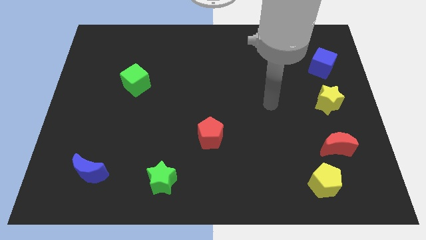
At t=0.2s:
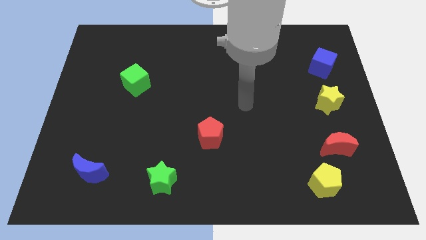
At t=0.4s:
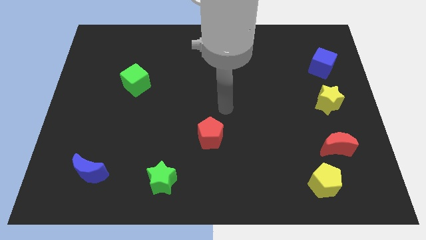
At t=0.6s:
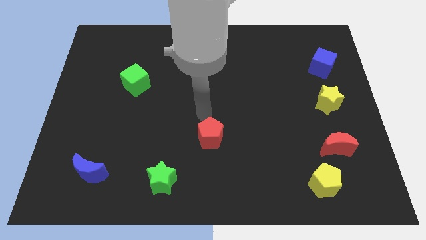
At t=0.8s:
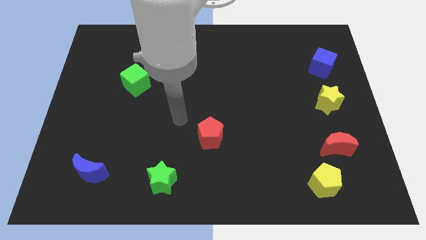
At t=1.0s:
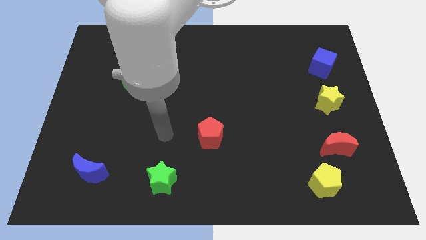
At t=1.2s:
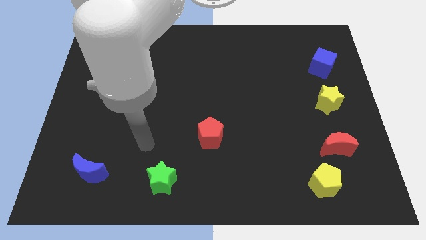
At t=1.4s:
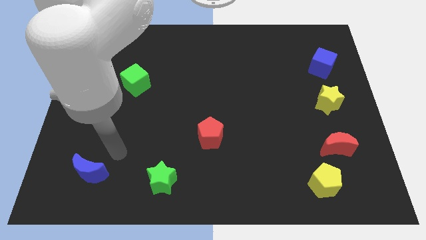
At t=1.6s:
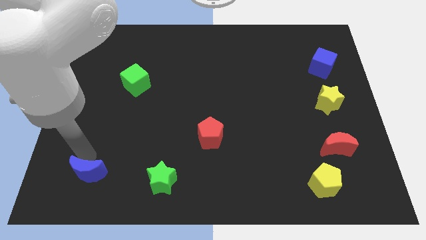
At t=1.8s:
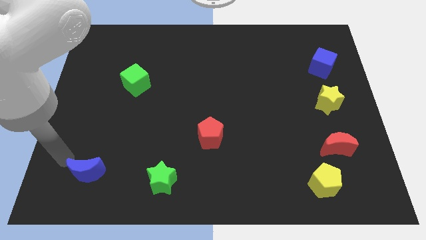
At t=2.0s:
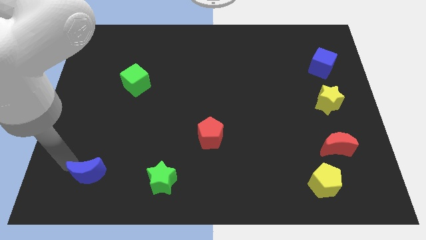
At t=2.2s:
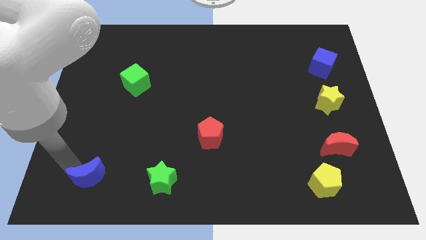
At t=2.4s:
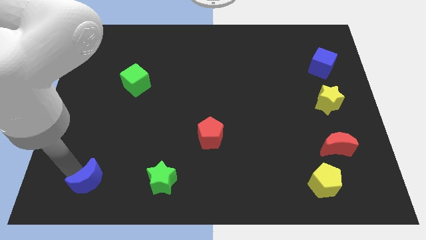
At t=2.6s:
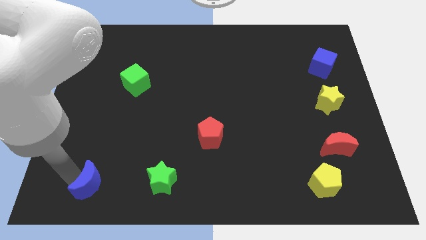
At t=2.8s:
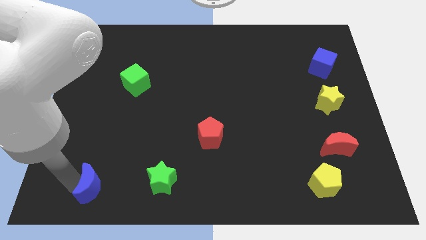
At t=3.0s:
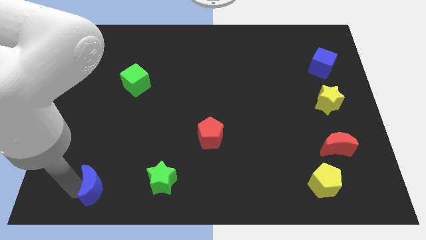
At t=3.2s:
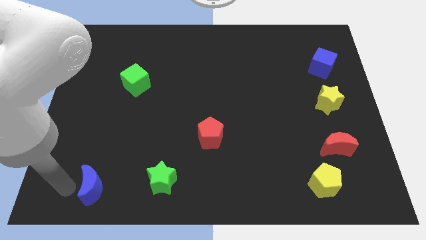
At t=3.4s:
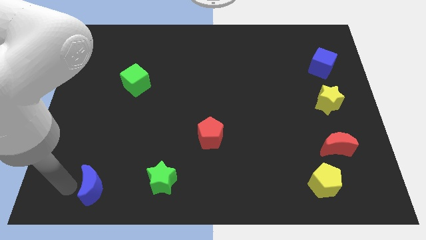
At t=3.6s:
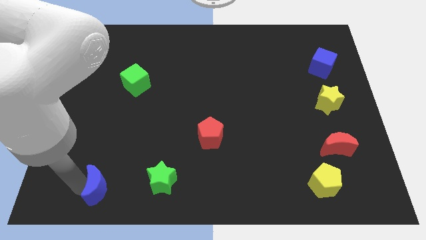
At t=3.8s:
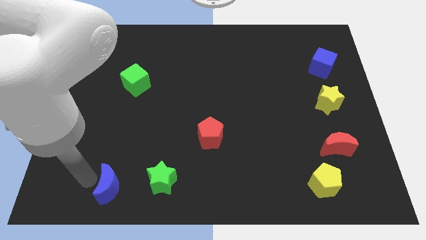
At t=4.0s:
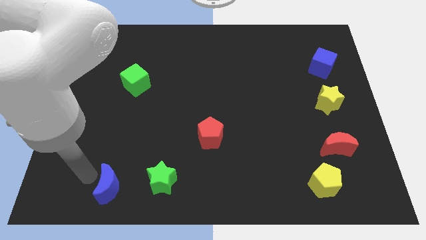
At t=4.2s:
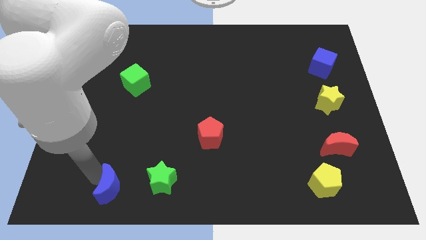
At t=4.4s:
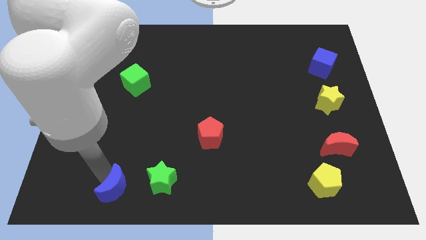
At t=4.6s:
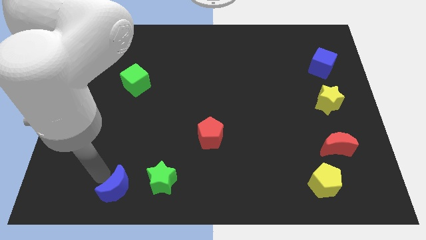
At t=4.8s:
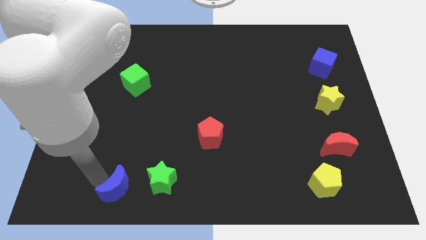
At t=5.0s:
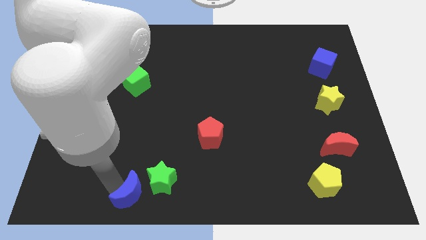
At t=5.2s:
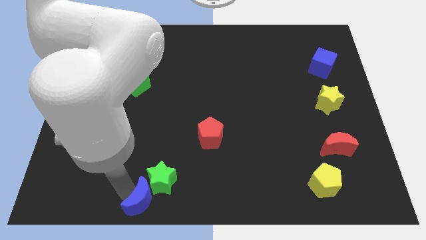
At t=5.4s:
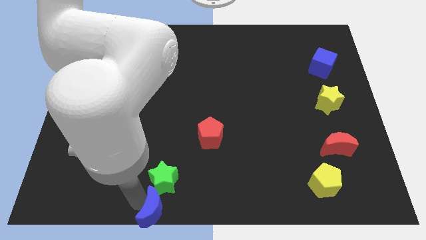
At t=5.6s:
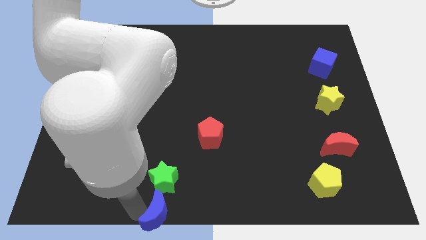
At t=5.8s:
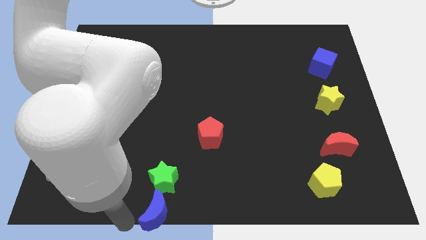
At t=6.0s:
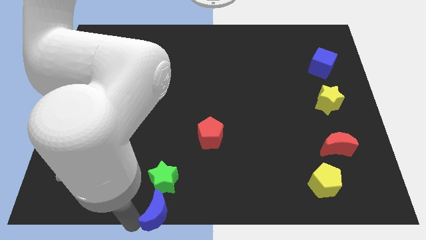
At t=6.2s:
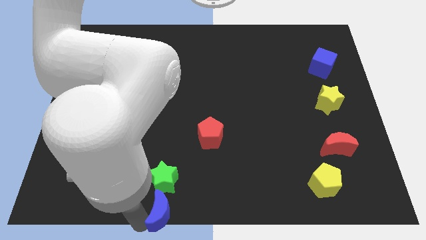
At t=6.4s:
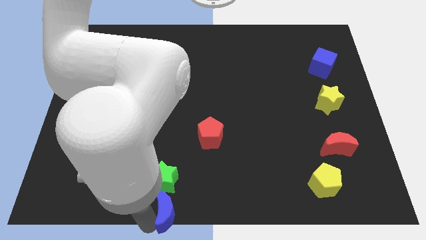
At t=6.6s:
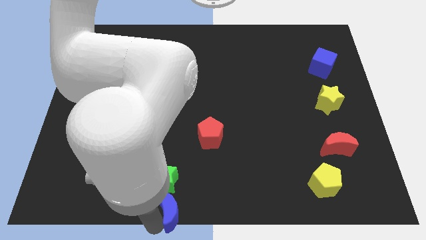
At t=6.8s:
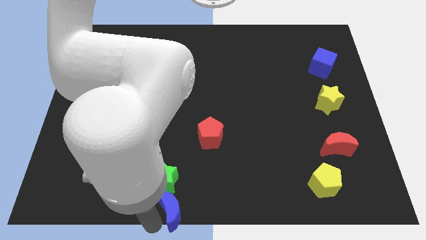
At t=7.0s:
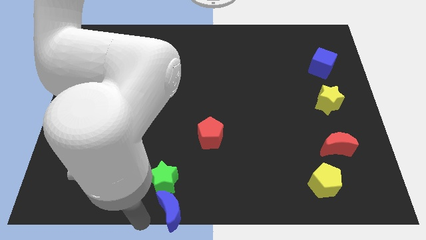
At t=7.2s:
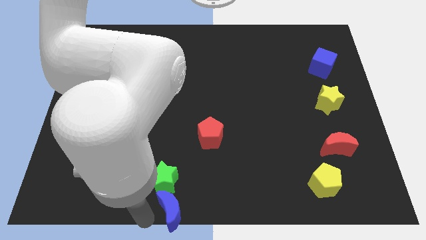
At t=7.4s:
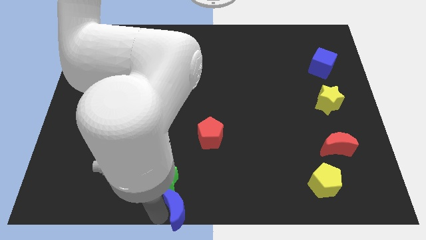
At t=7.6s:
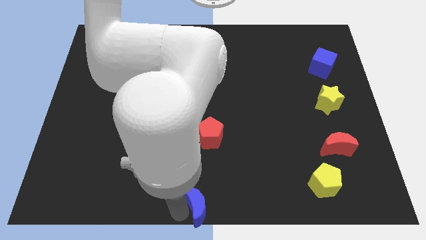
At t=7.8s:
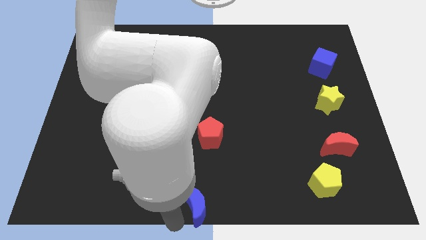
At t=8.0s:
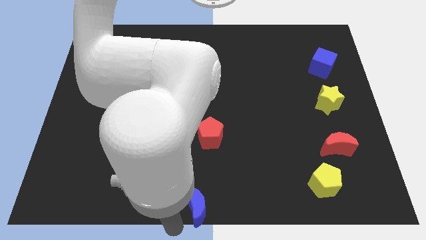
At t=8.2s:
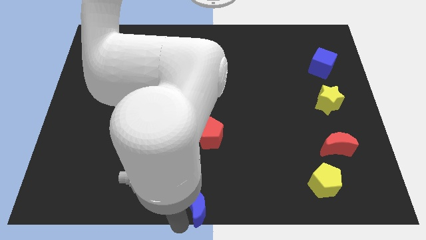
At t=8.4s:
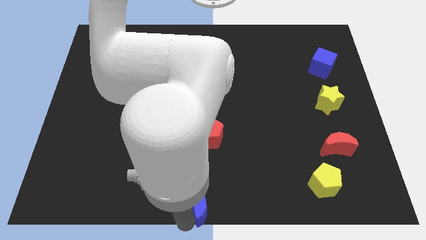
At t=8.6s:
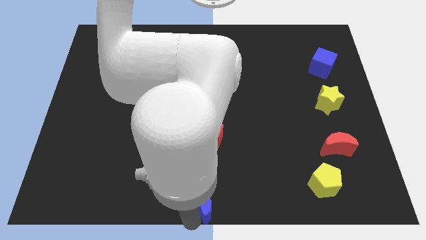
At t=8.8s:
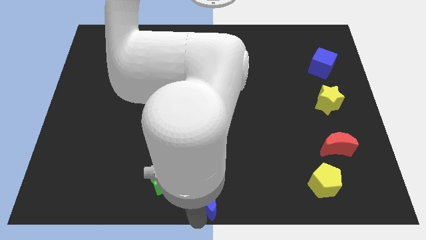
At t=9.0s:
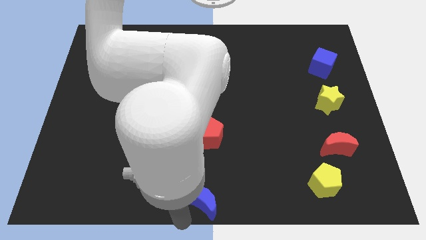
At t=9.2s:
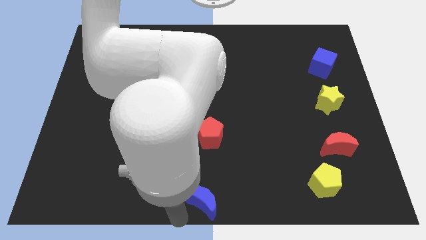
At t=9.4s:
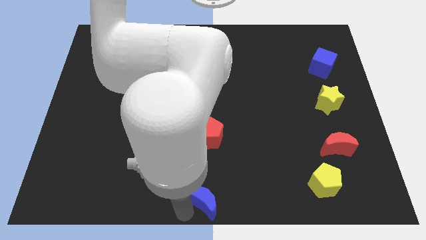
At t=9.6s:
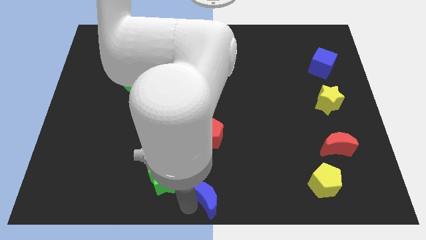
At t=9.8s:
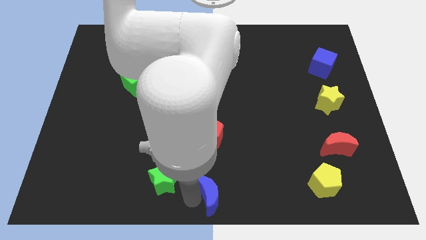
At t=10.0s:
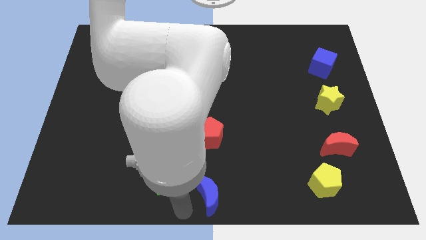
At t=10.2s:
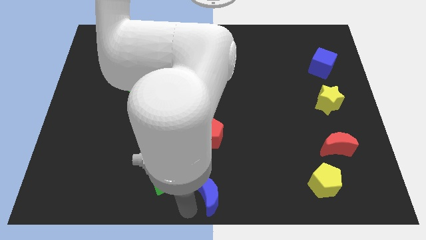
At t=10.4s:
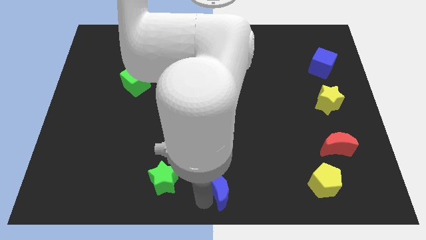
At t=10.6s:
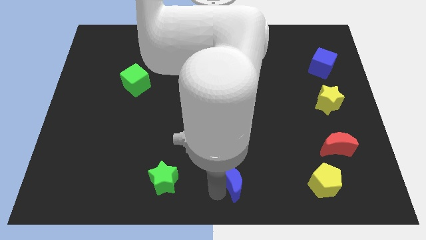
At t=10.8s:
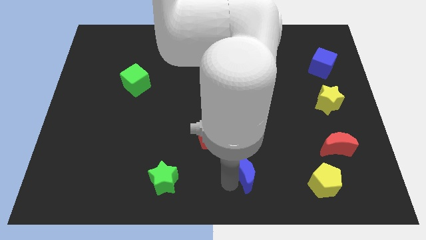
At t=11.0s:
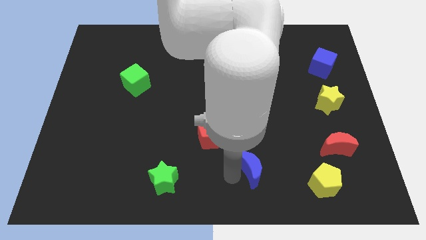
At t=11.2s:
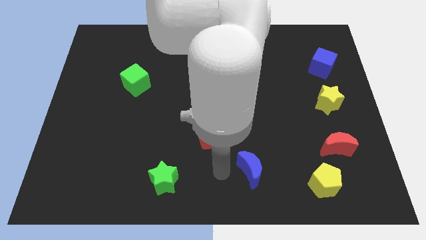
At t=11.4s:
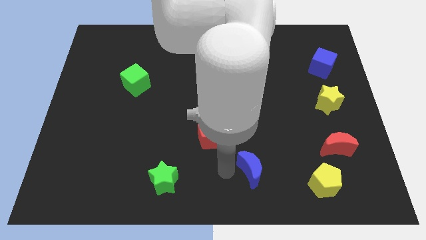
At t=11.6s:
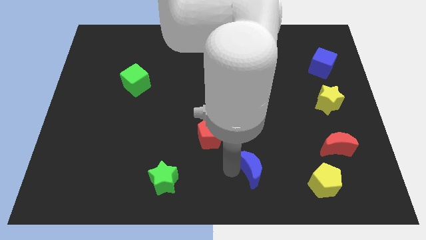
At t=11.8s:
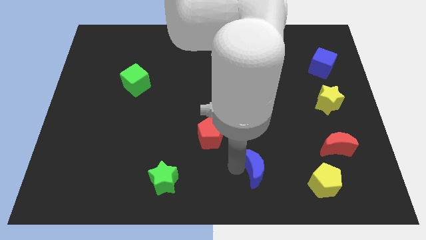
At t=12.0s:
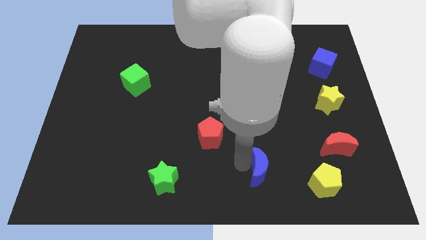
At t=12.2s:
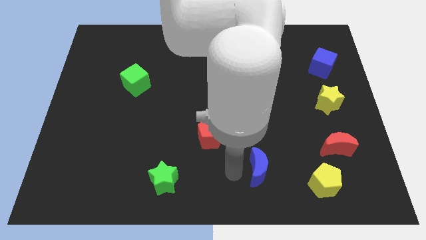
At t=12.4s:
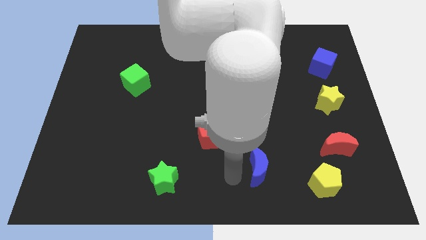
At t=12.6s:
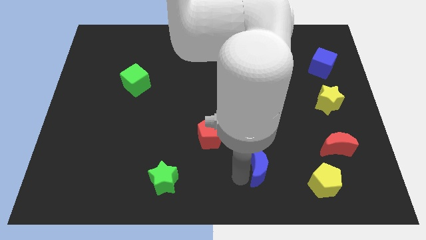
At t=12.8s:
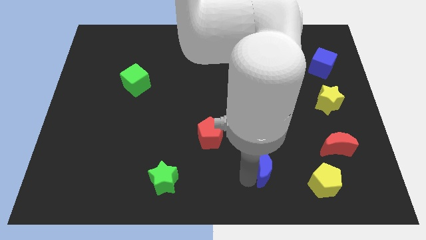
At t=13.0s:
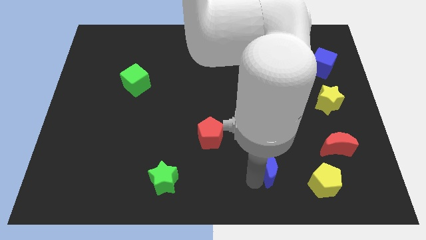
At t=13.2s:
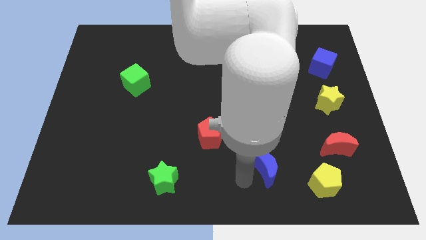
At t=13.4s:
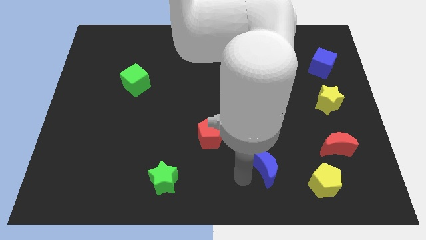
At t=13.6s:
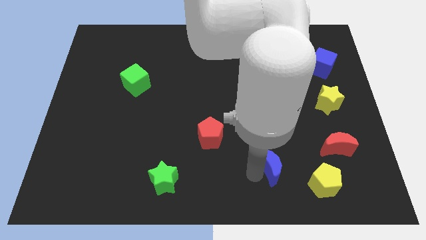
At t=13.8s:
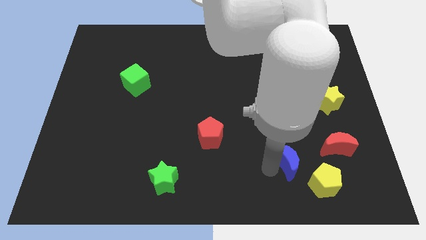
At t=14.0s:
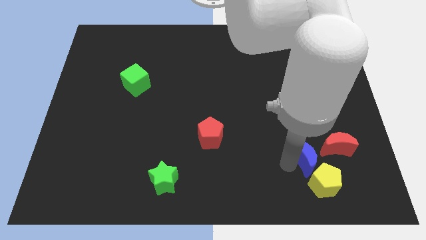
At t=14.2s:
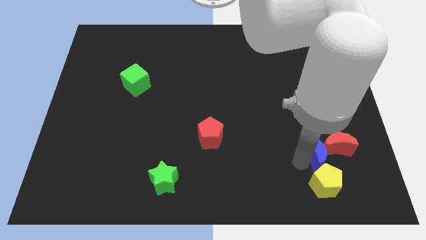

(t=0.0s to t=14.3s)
move the blue moon to the red moon

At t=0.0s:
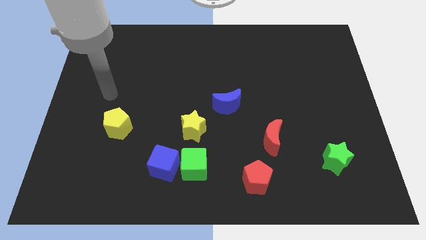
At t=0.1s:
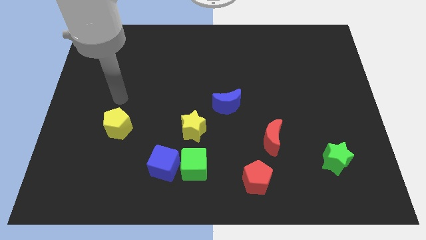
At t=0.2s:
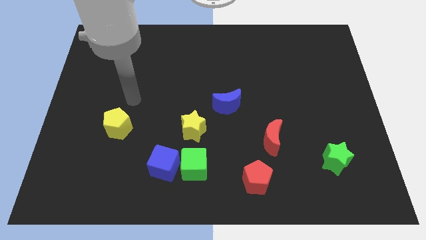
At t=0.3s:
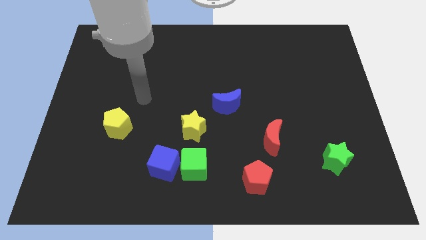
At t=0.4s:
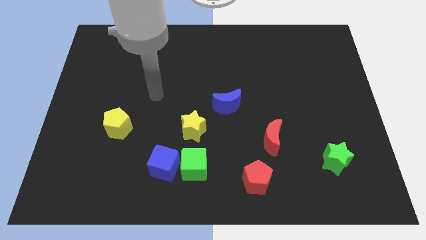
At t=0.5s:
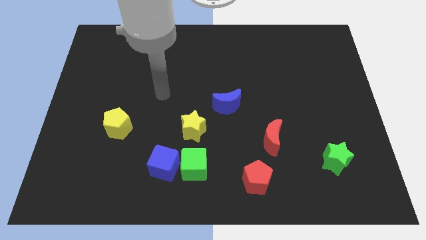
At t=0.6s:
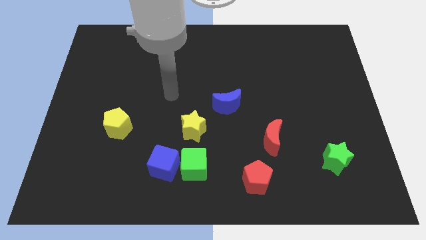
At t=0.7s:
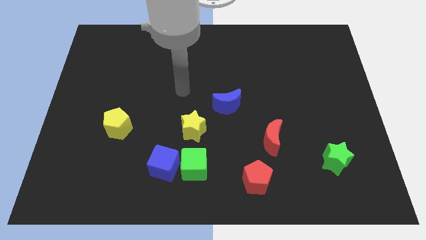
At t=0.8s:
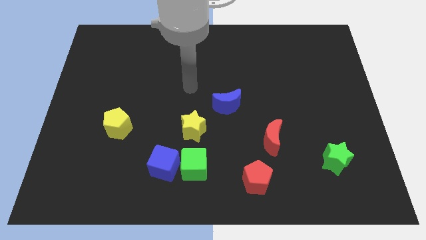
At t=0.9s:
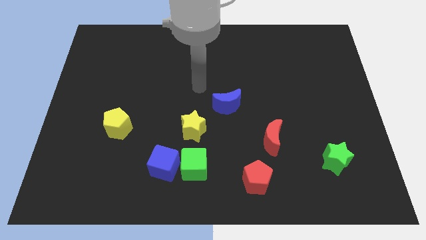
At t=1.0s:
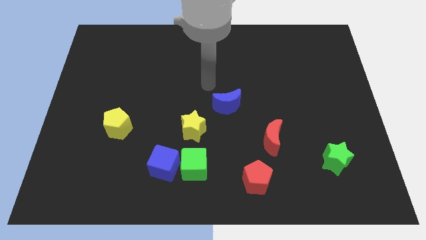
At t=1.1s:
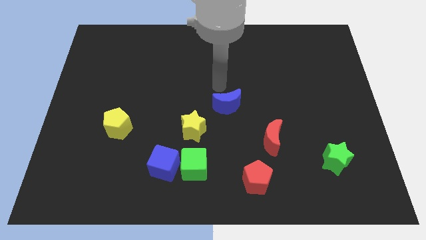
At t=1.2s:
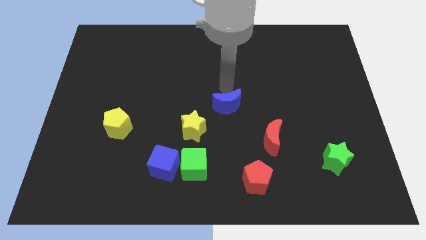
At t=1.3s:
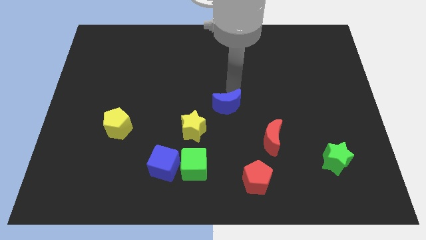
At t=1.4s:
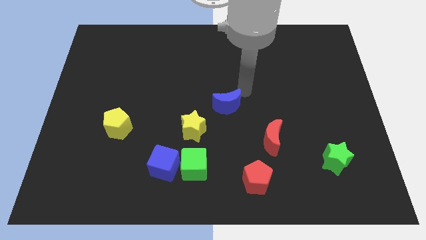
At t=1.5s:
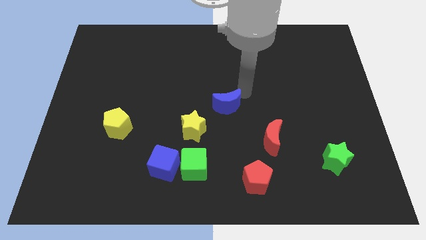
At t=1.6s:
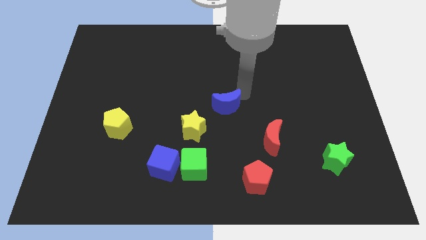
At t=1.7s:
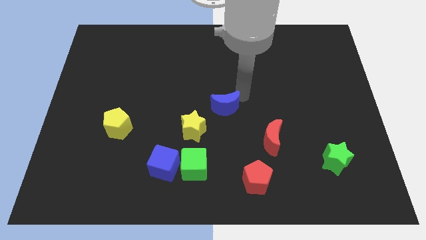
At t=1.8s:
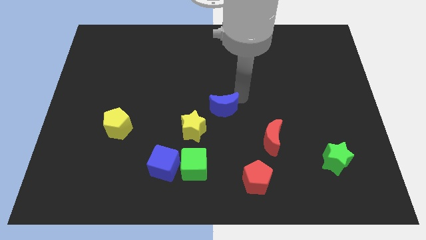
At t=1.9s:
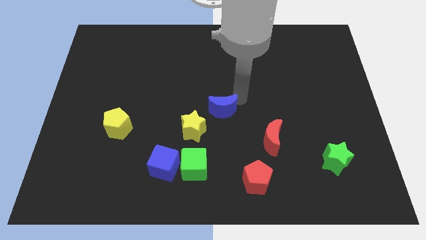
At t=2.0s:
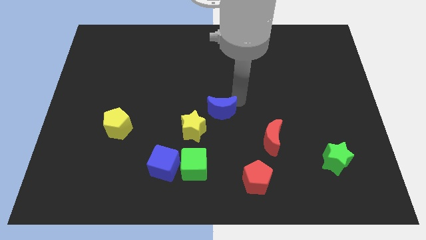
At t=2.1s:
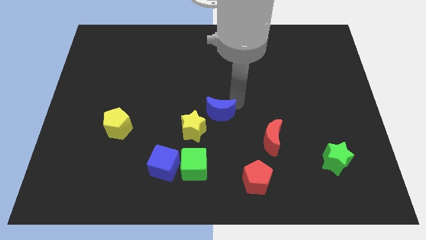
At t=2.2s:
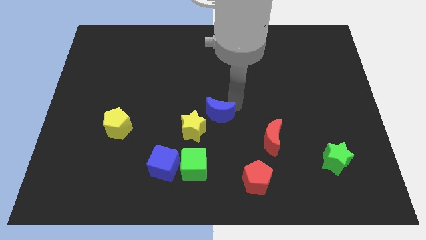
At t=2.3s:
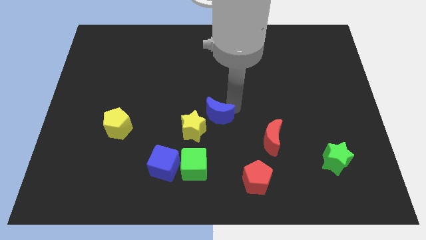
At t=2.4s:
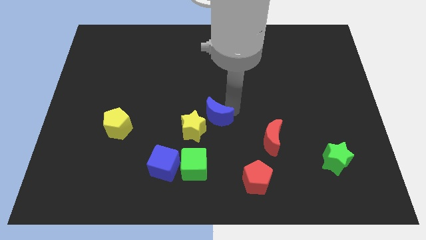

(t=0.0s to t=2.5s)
put the blue moon next to the yellow star
